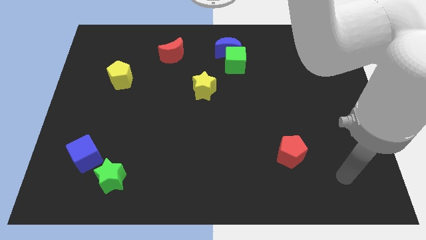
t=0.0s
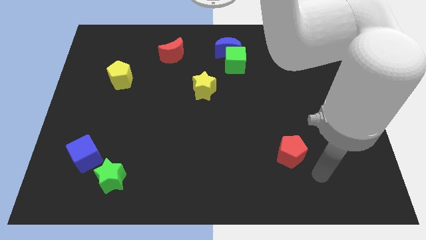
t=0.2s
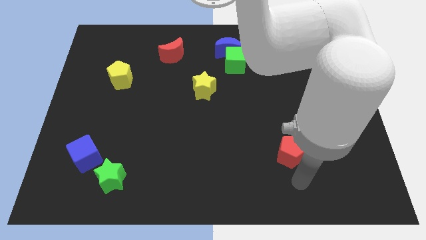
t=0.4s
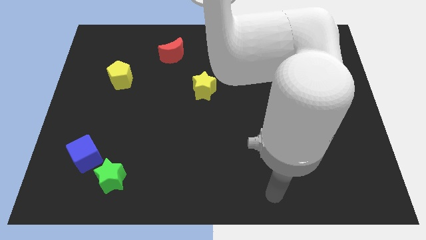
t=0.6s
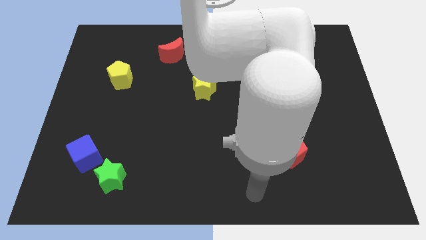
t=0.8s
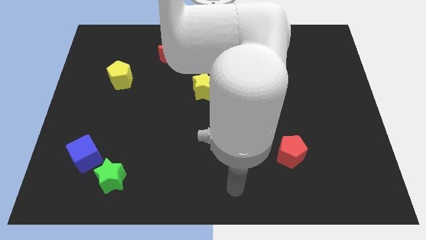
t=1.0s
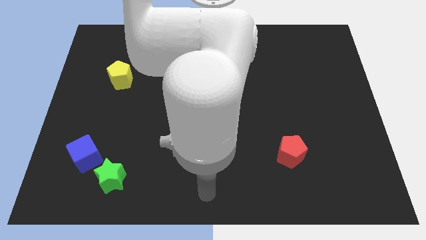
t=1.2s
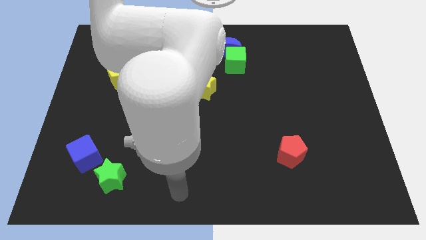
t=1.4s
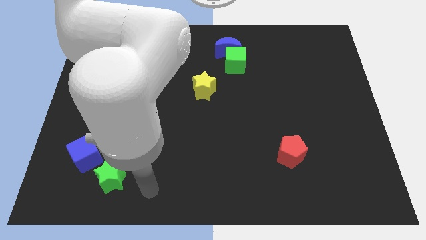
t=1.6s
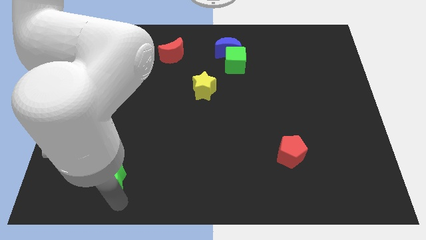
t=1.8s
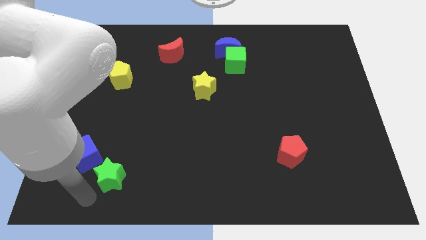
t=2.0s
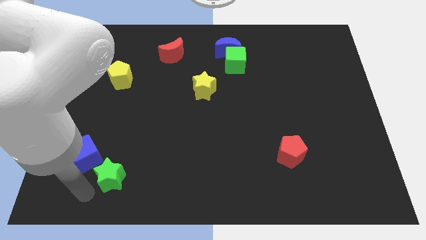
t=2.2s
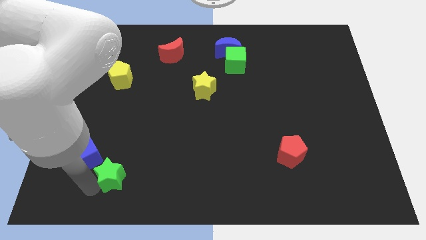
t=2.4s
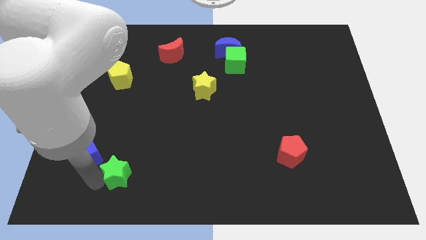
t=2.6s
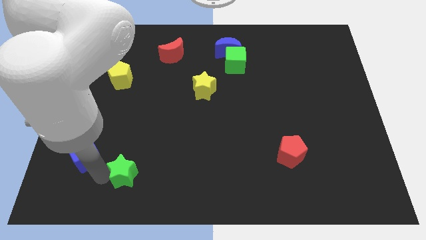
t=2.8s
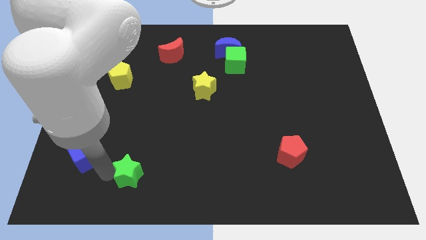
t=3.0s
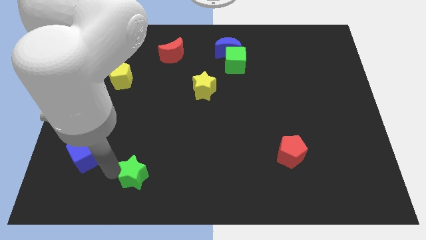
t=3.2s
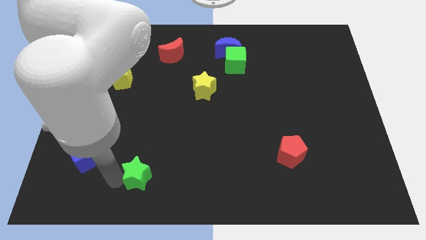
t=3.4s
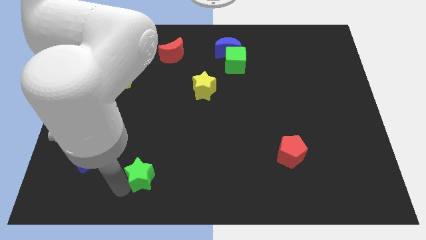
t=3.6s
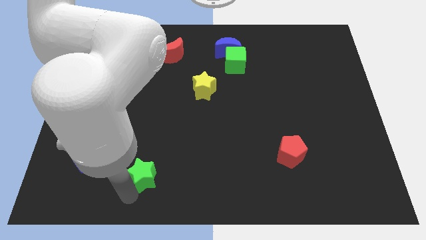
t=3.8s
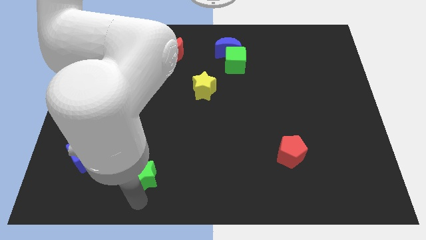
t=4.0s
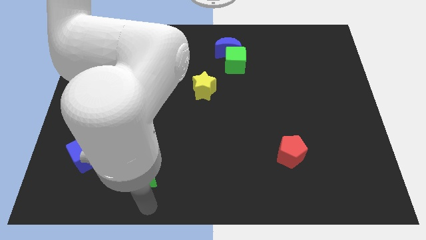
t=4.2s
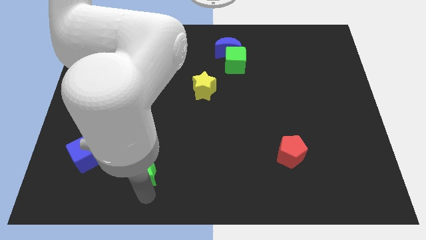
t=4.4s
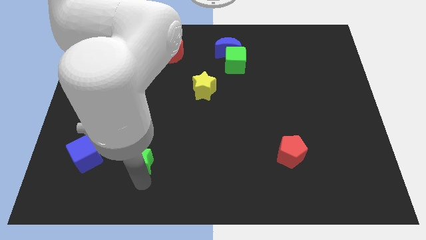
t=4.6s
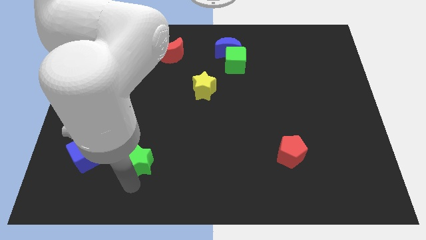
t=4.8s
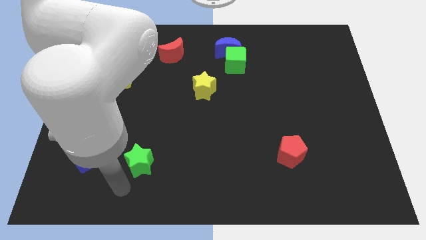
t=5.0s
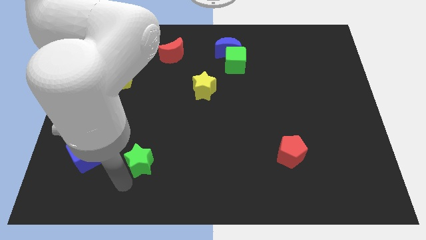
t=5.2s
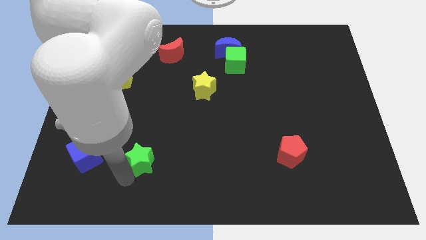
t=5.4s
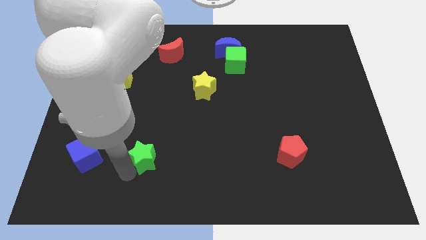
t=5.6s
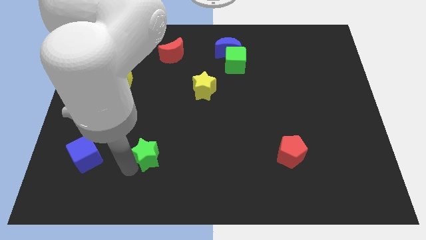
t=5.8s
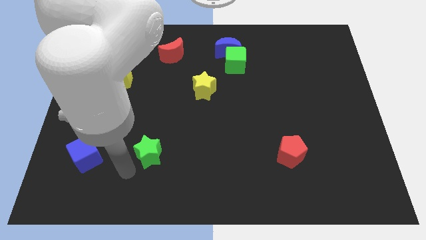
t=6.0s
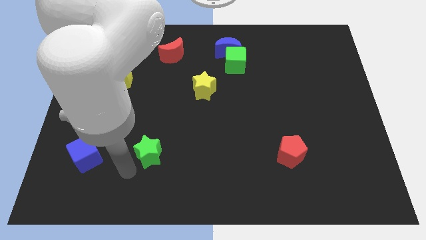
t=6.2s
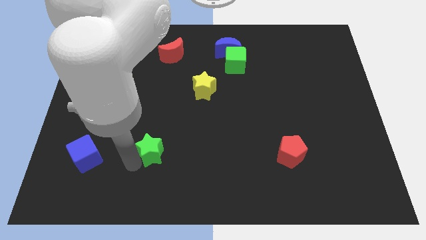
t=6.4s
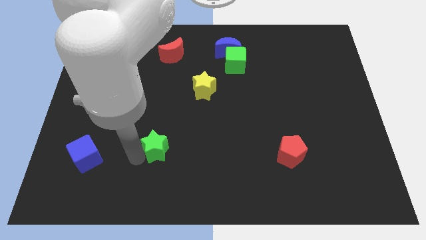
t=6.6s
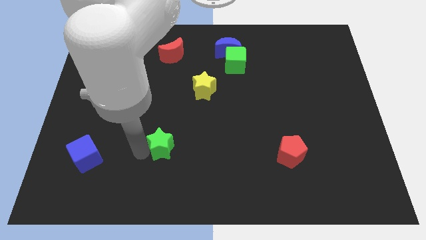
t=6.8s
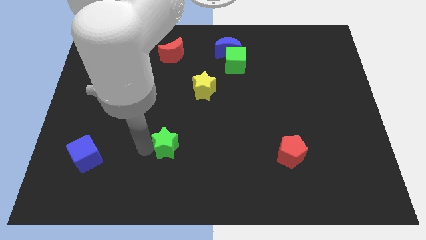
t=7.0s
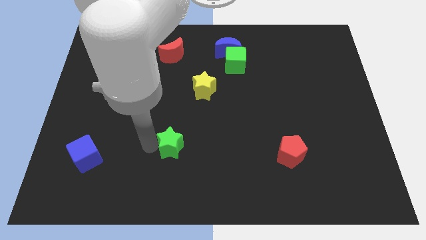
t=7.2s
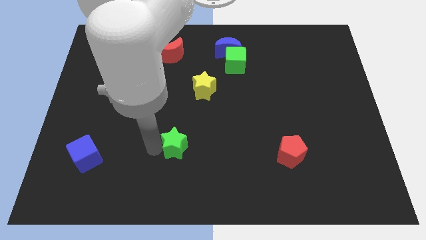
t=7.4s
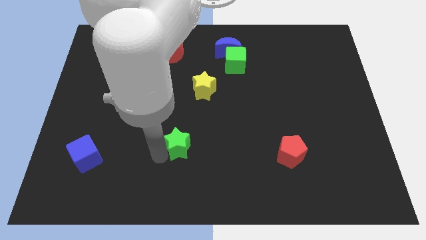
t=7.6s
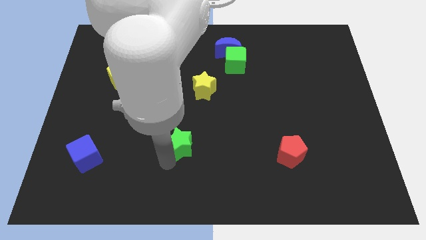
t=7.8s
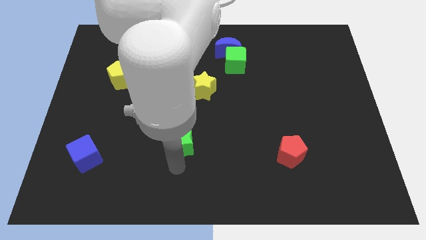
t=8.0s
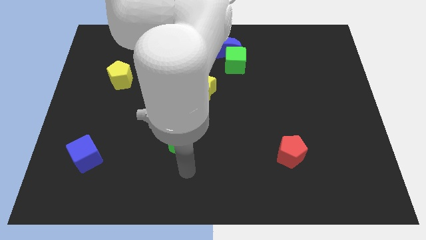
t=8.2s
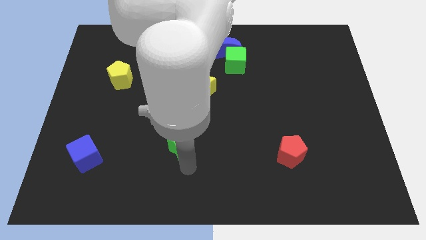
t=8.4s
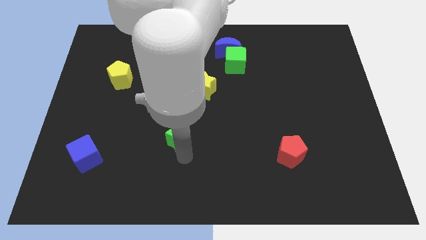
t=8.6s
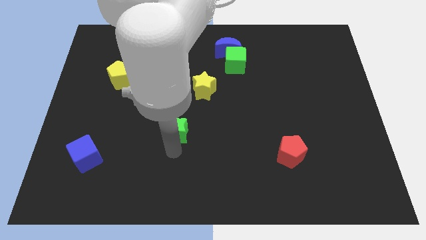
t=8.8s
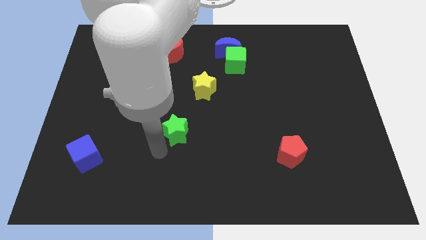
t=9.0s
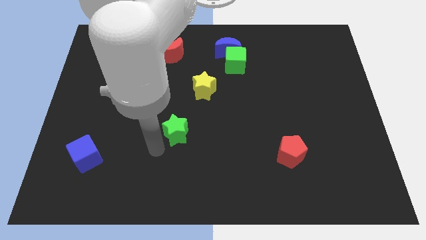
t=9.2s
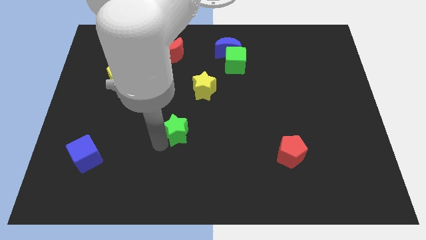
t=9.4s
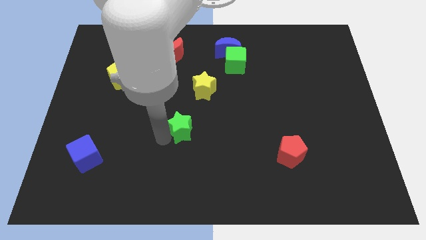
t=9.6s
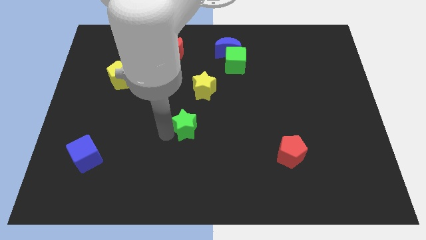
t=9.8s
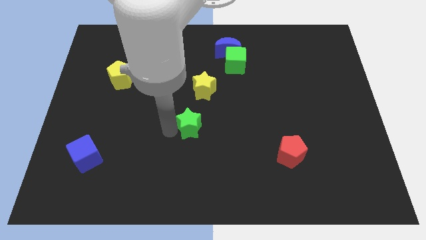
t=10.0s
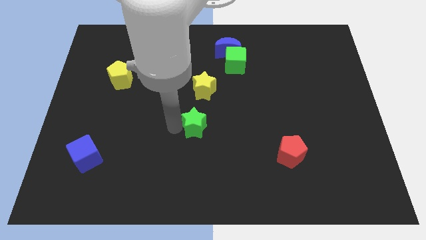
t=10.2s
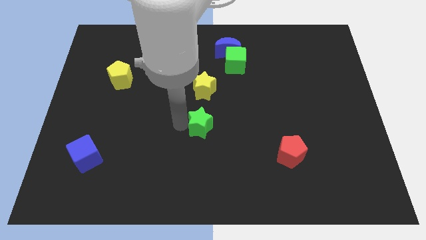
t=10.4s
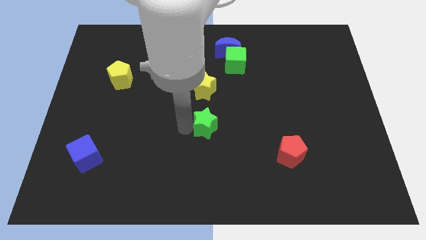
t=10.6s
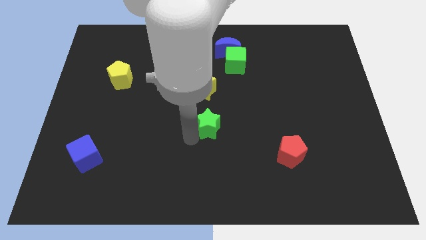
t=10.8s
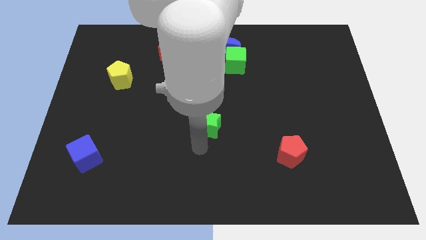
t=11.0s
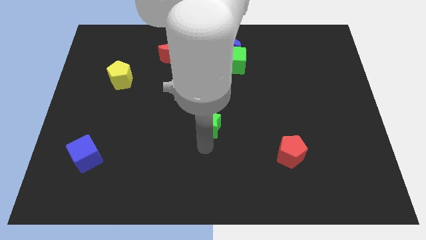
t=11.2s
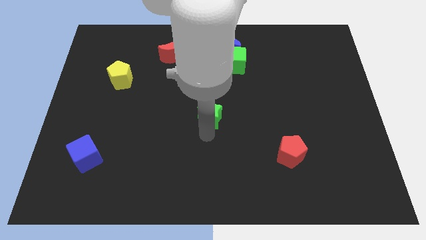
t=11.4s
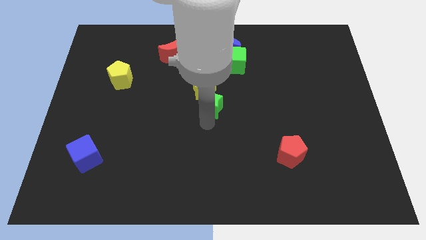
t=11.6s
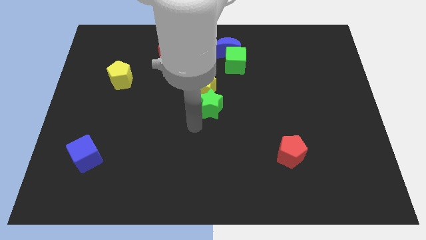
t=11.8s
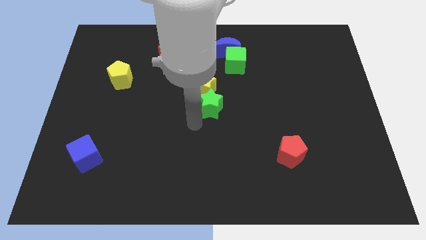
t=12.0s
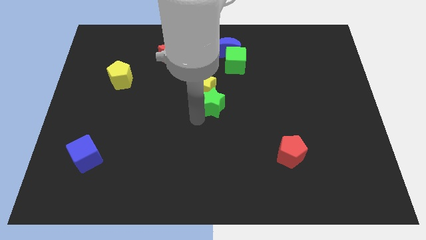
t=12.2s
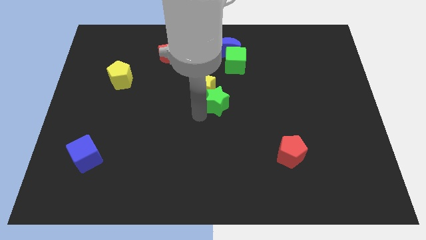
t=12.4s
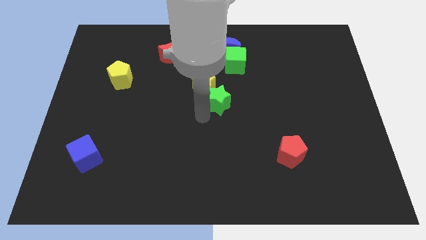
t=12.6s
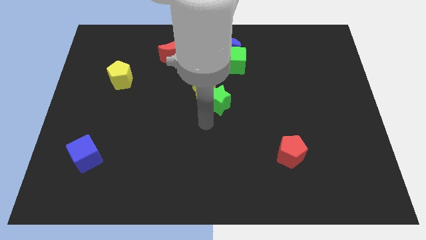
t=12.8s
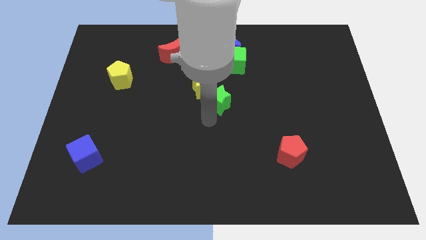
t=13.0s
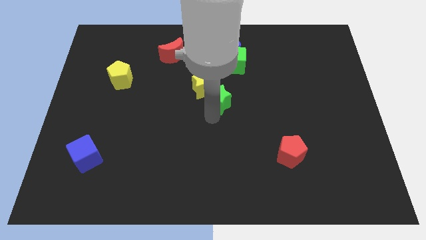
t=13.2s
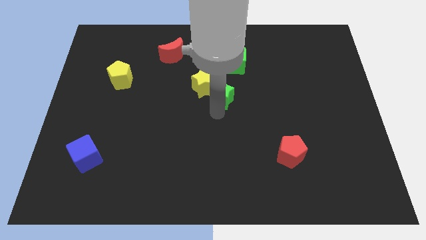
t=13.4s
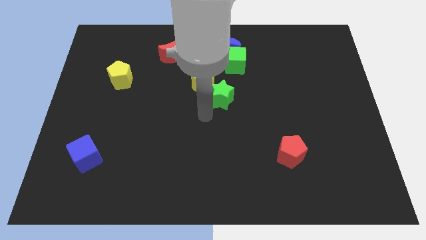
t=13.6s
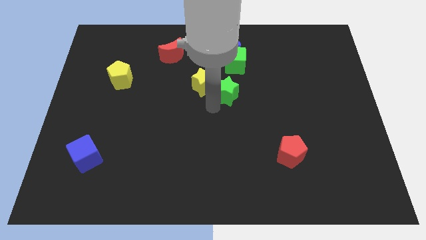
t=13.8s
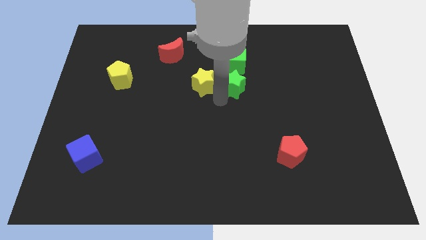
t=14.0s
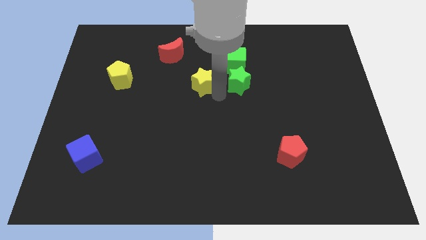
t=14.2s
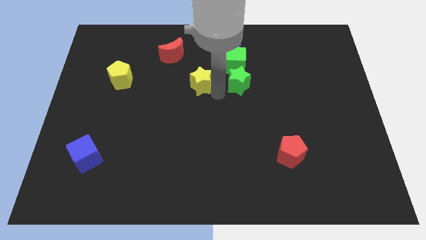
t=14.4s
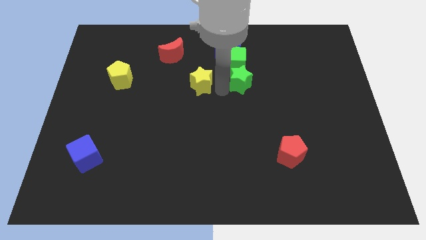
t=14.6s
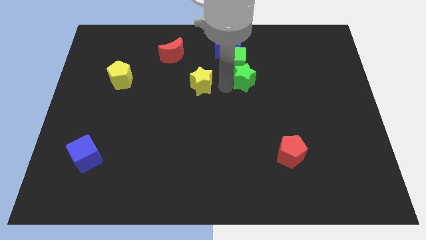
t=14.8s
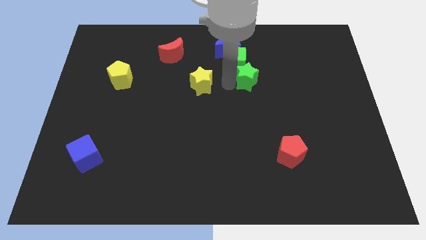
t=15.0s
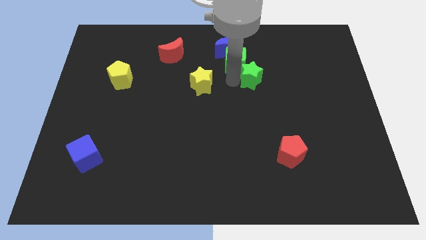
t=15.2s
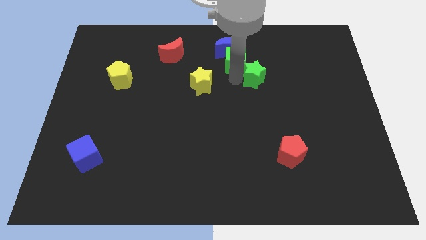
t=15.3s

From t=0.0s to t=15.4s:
push the green star to the right side of the green cube
